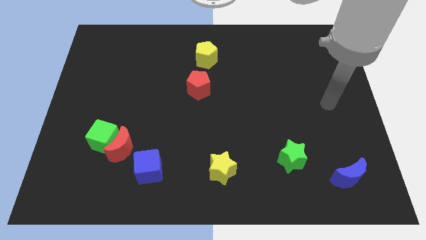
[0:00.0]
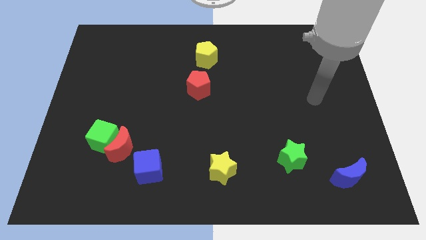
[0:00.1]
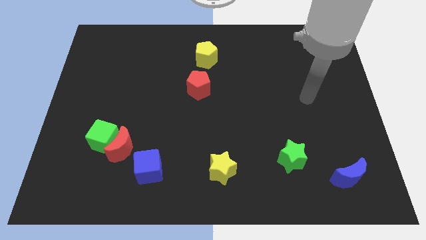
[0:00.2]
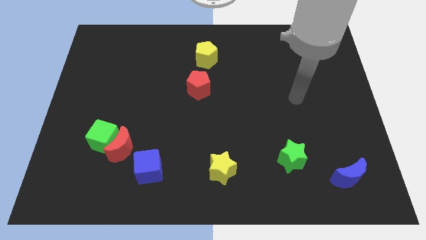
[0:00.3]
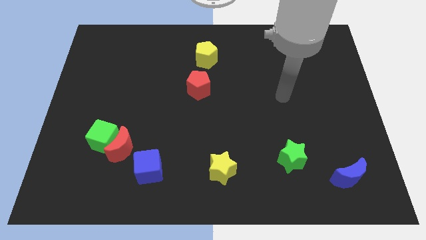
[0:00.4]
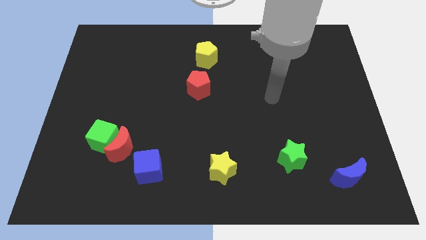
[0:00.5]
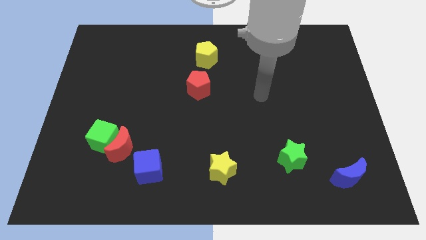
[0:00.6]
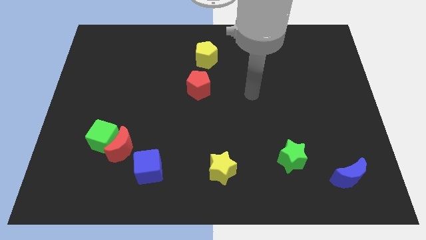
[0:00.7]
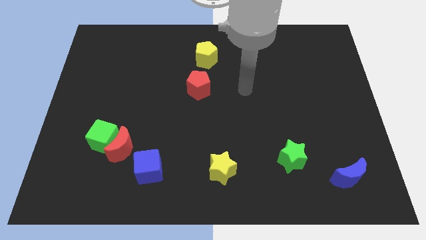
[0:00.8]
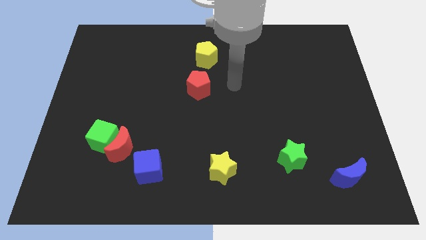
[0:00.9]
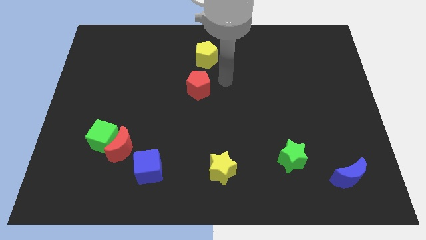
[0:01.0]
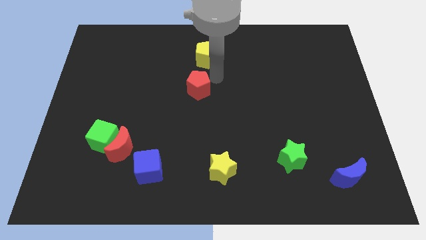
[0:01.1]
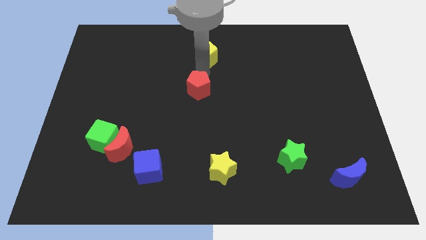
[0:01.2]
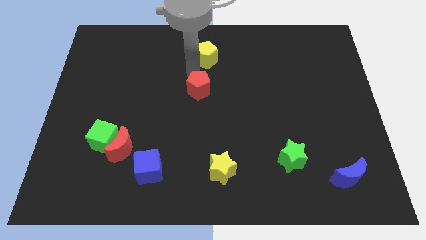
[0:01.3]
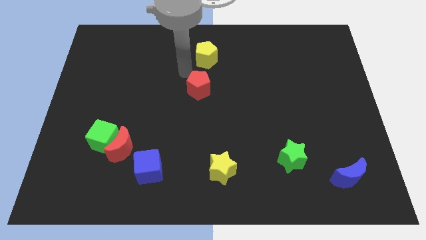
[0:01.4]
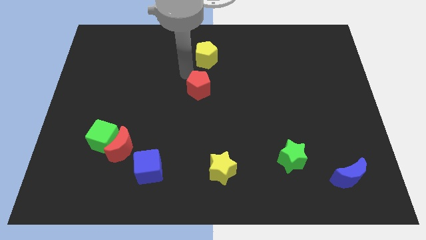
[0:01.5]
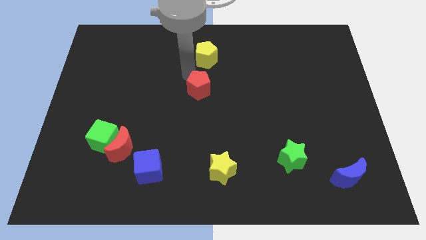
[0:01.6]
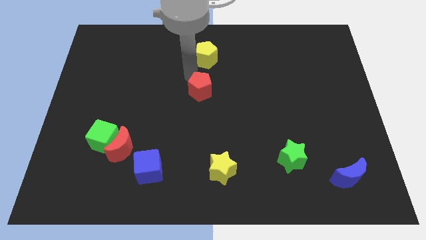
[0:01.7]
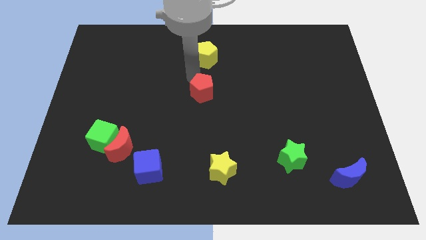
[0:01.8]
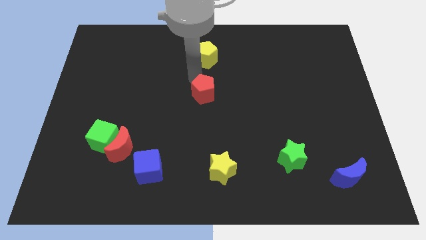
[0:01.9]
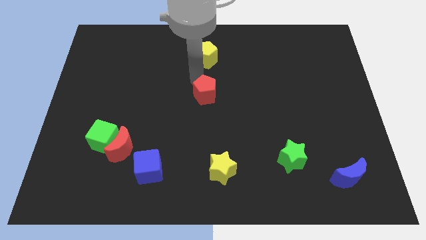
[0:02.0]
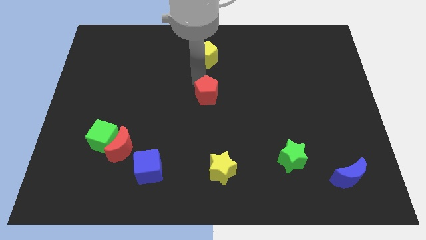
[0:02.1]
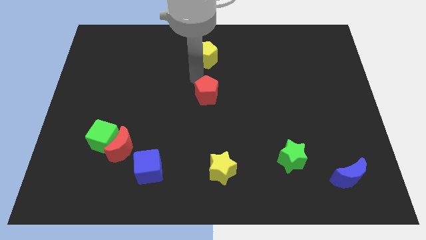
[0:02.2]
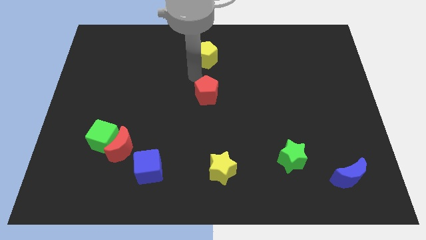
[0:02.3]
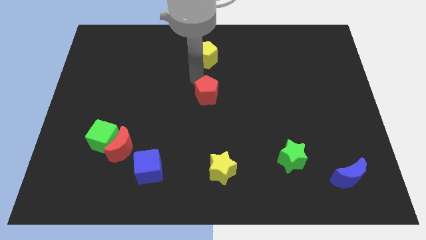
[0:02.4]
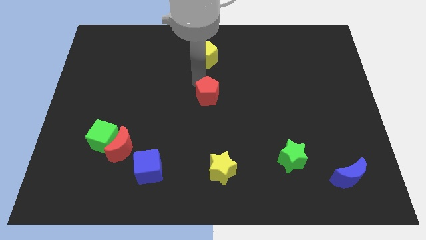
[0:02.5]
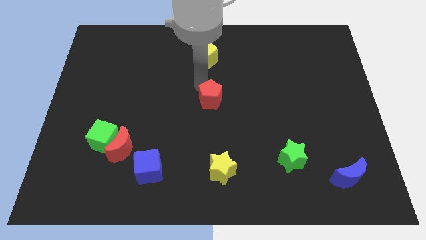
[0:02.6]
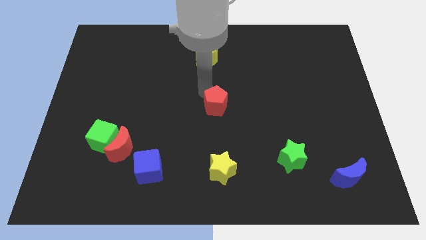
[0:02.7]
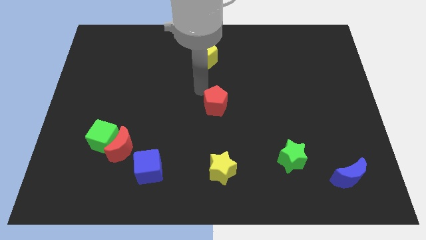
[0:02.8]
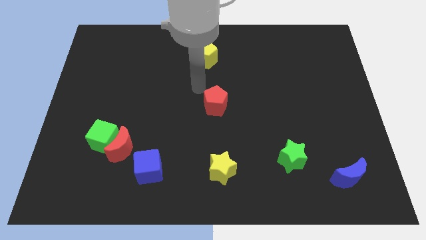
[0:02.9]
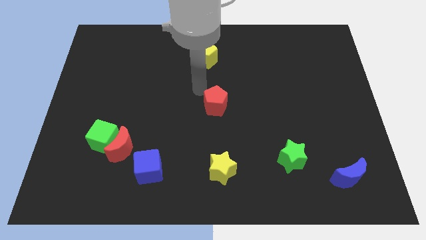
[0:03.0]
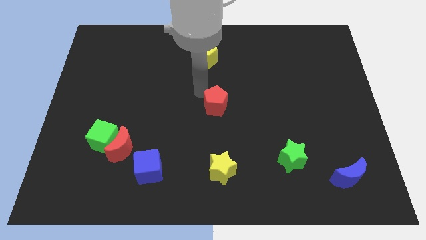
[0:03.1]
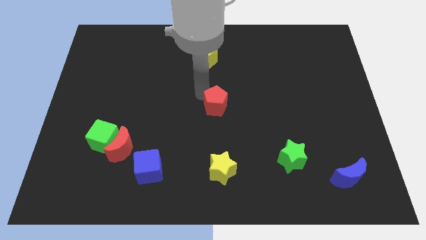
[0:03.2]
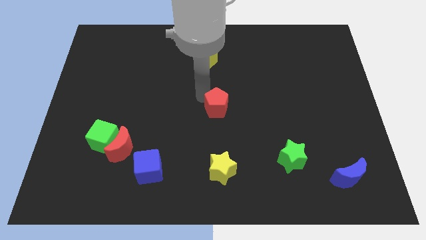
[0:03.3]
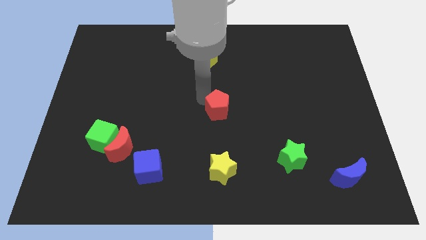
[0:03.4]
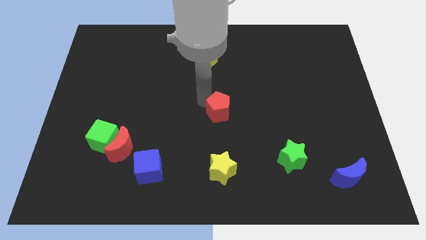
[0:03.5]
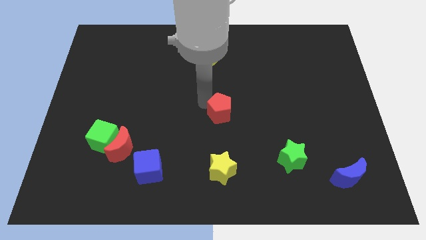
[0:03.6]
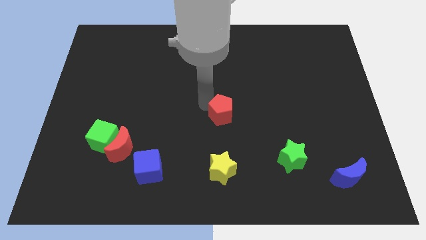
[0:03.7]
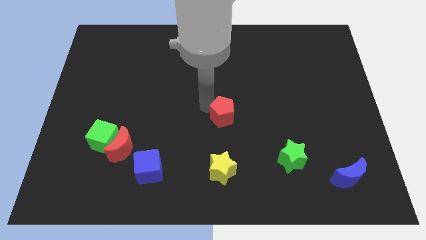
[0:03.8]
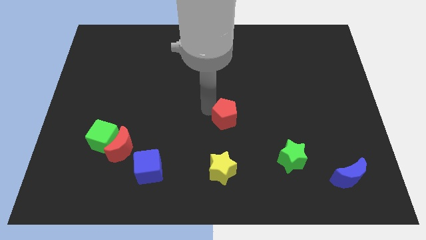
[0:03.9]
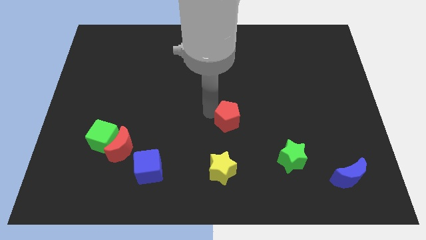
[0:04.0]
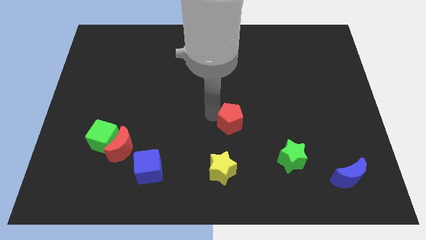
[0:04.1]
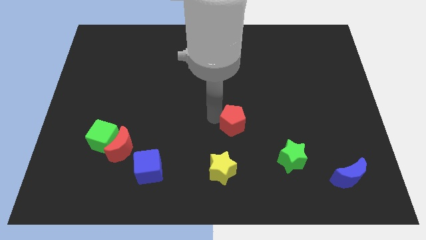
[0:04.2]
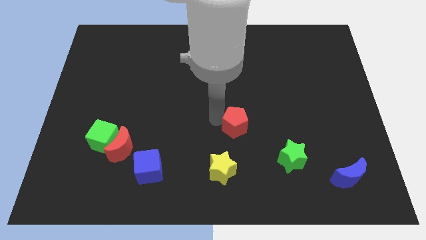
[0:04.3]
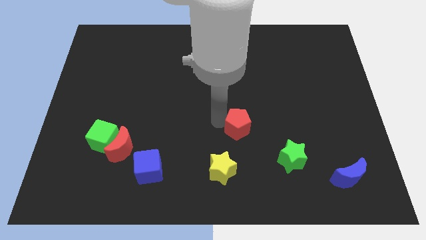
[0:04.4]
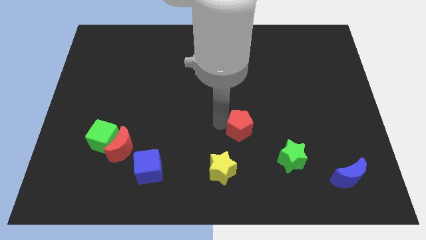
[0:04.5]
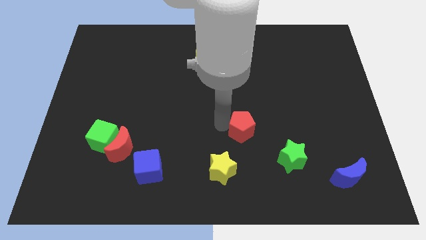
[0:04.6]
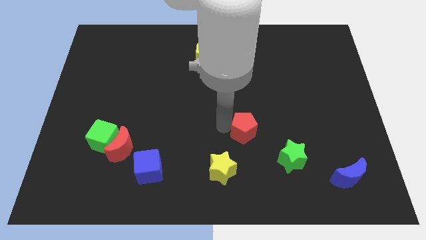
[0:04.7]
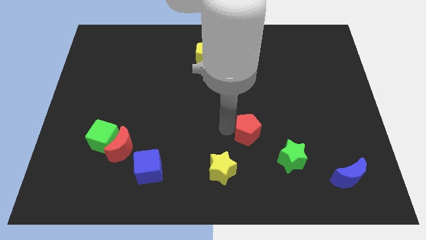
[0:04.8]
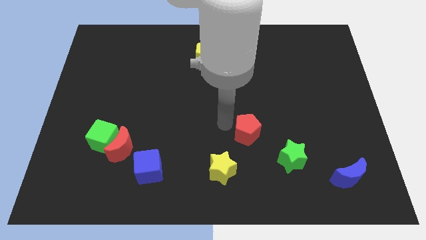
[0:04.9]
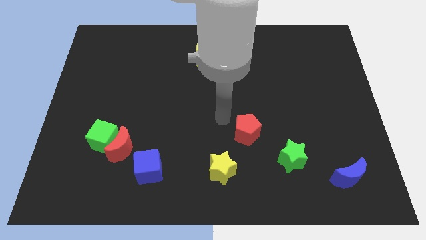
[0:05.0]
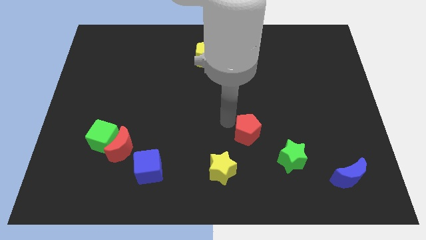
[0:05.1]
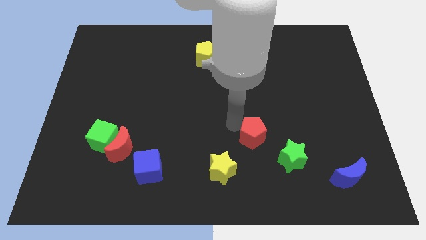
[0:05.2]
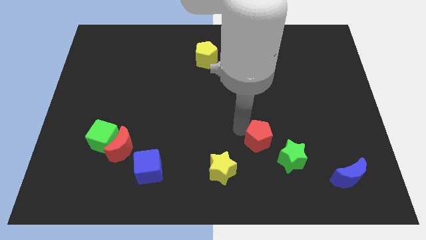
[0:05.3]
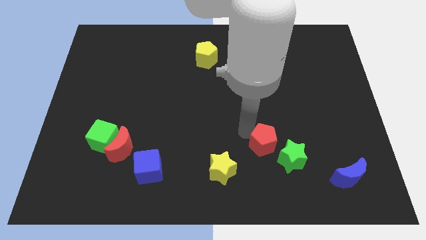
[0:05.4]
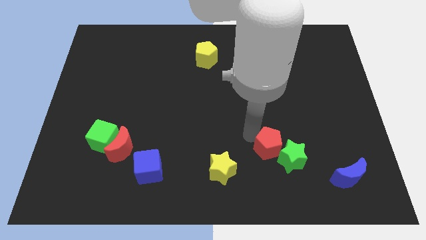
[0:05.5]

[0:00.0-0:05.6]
put the red pentagon close to the green star

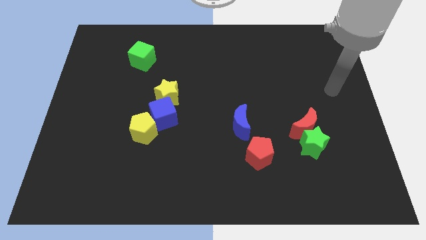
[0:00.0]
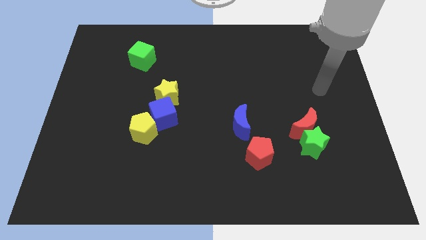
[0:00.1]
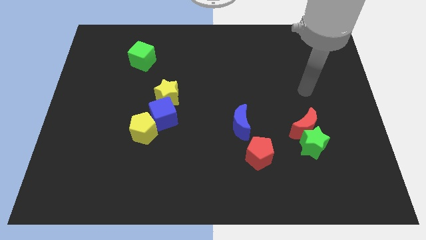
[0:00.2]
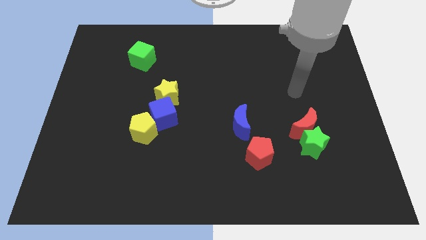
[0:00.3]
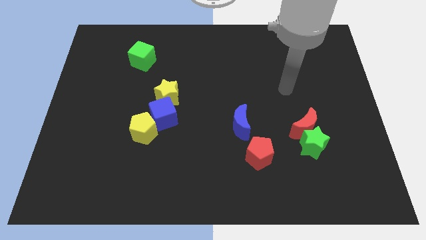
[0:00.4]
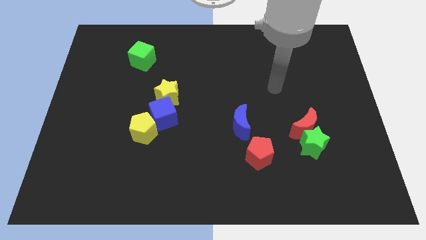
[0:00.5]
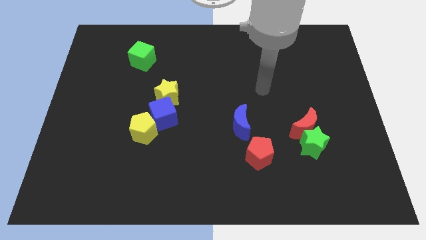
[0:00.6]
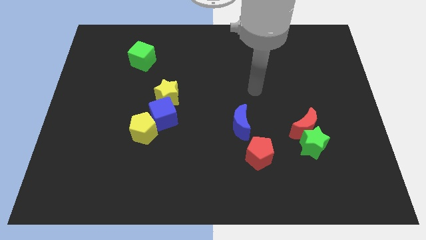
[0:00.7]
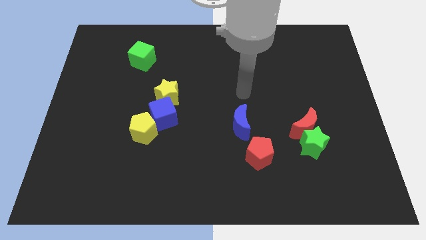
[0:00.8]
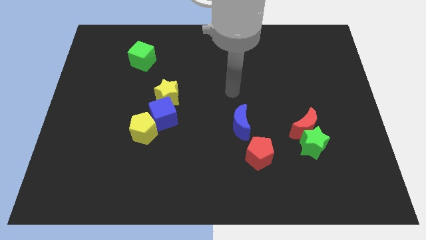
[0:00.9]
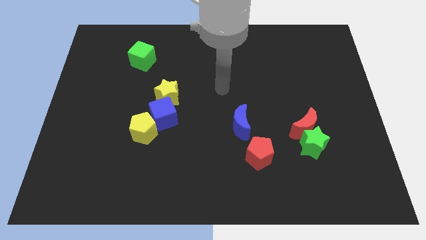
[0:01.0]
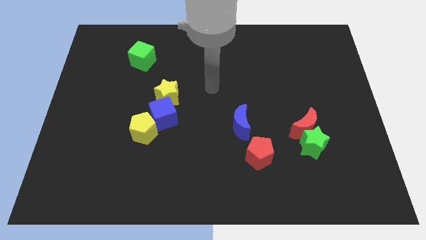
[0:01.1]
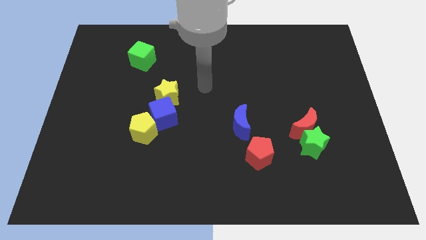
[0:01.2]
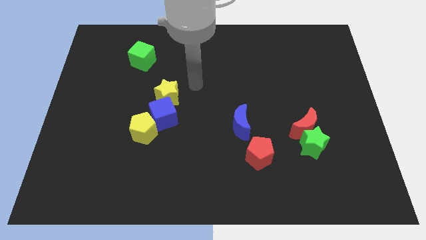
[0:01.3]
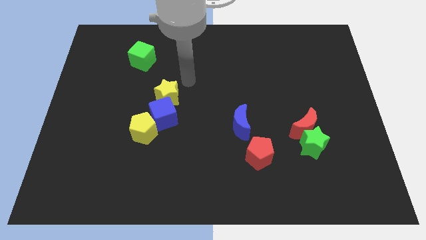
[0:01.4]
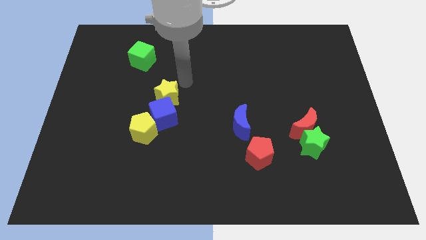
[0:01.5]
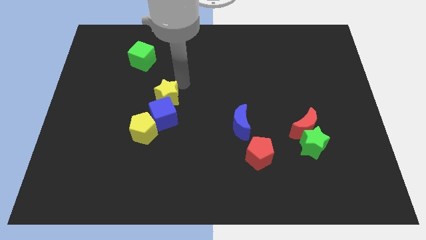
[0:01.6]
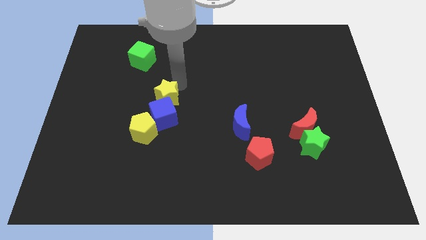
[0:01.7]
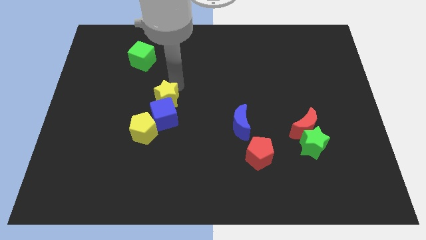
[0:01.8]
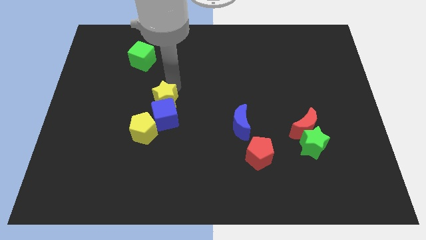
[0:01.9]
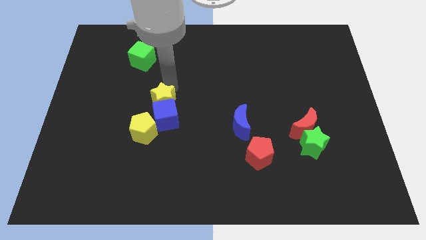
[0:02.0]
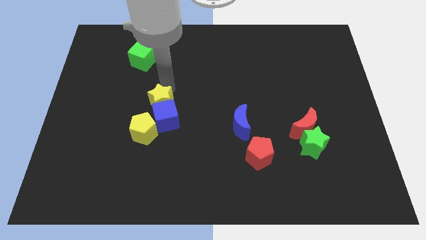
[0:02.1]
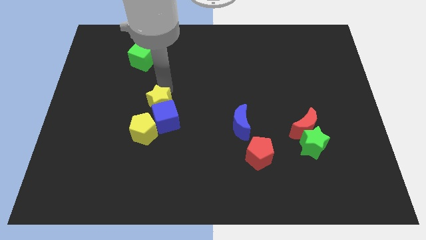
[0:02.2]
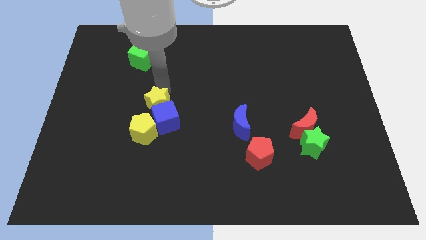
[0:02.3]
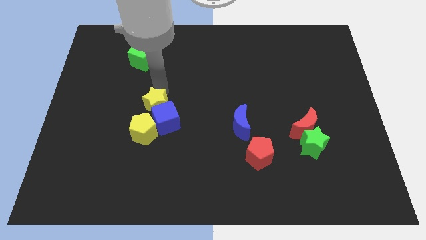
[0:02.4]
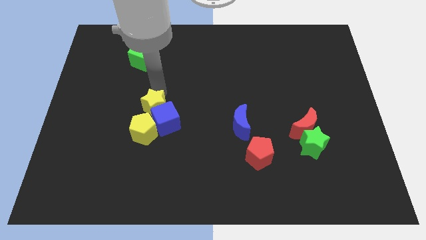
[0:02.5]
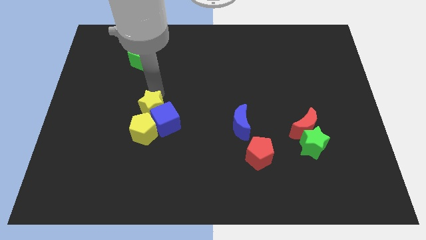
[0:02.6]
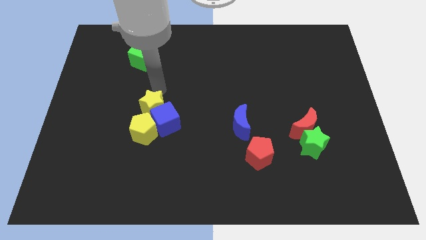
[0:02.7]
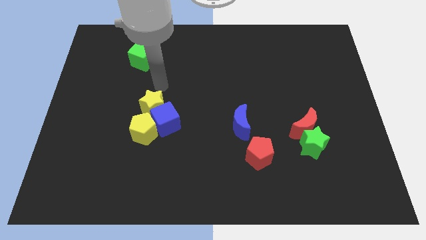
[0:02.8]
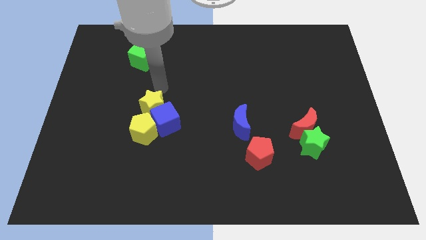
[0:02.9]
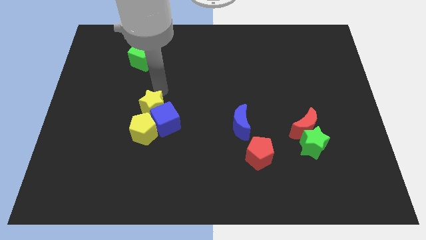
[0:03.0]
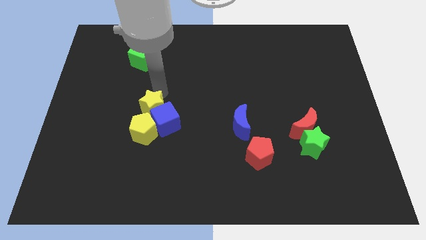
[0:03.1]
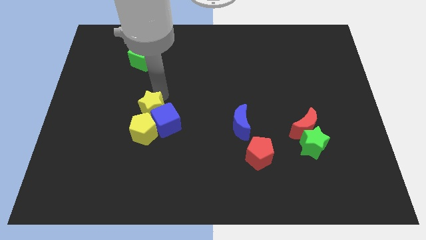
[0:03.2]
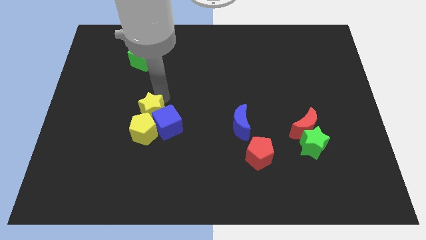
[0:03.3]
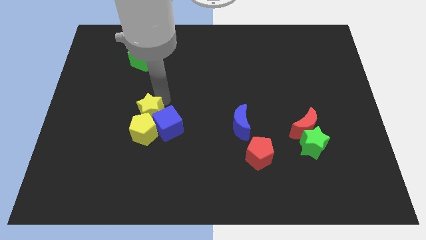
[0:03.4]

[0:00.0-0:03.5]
slide the yellow star close to the yellow pentagon
